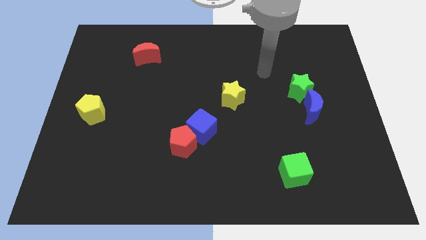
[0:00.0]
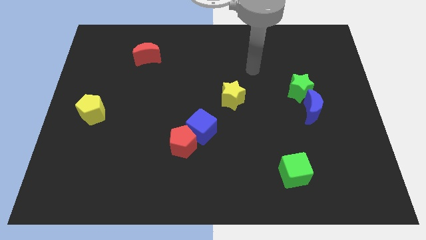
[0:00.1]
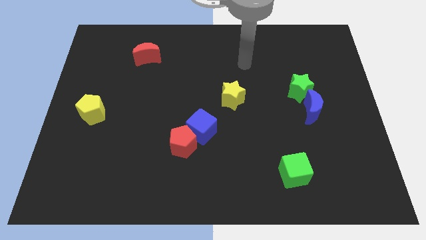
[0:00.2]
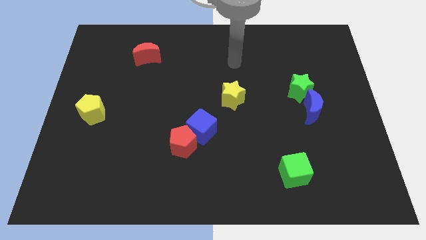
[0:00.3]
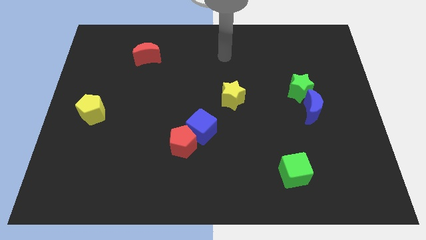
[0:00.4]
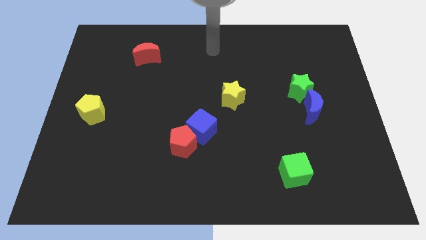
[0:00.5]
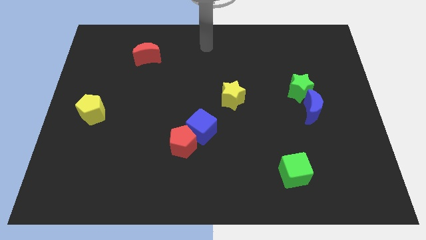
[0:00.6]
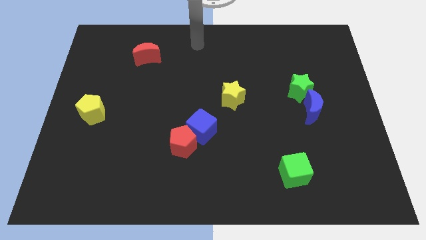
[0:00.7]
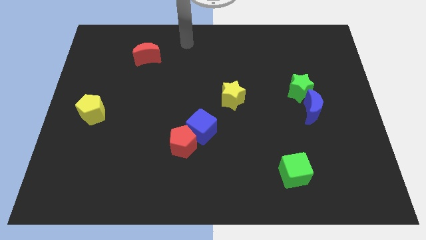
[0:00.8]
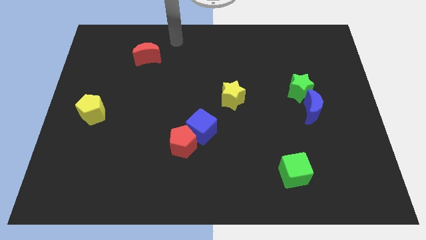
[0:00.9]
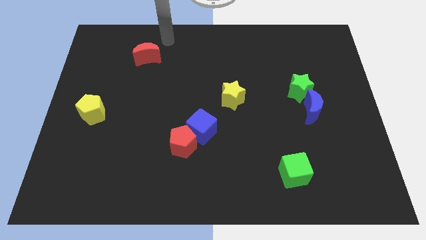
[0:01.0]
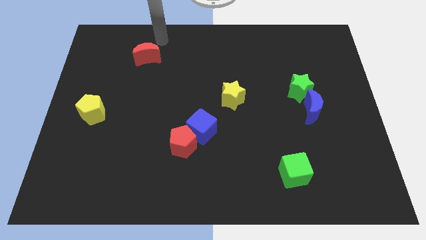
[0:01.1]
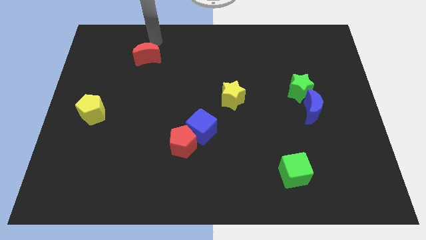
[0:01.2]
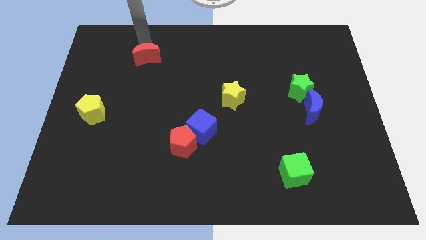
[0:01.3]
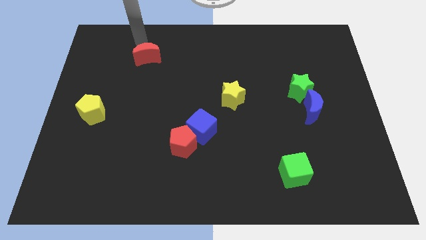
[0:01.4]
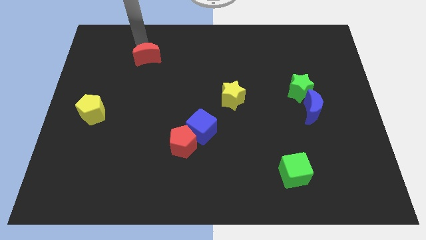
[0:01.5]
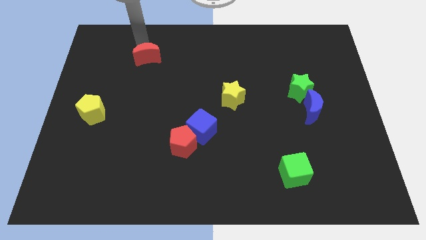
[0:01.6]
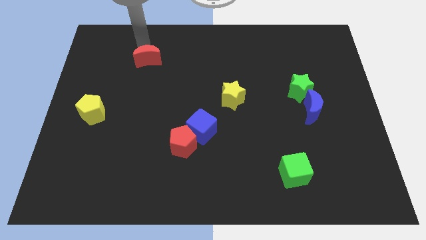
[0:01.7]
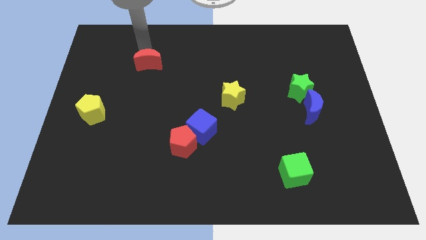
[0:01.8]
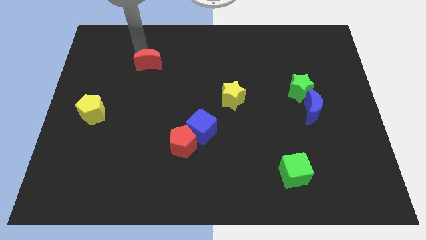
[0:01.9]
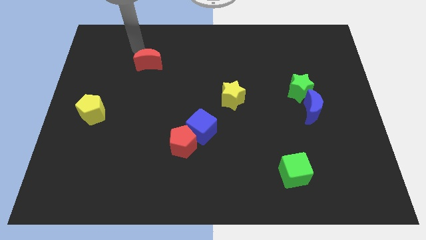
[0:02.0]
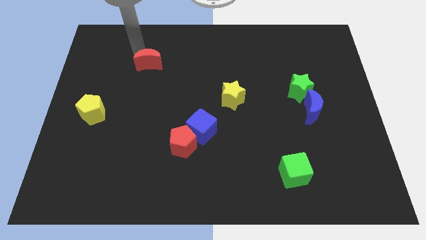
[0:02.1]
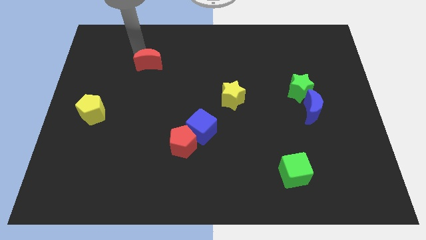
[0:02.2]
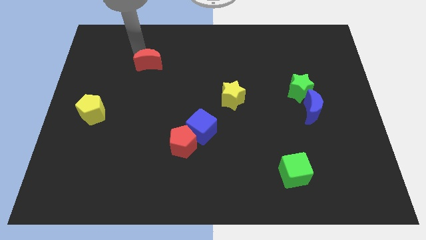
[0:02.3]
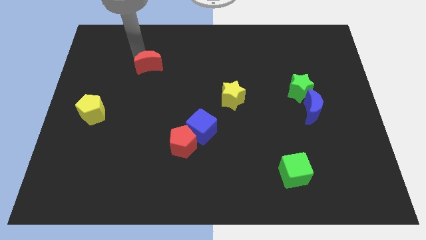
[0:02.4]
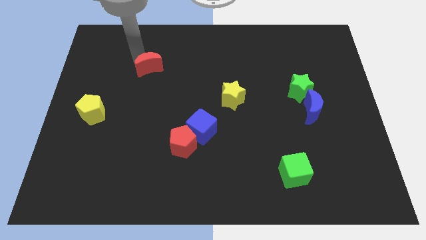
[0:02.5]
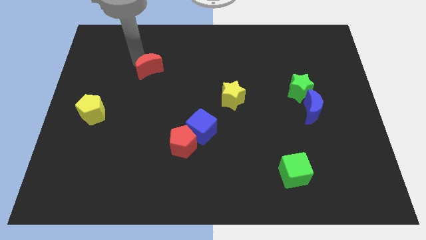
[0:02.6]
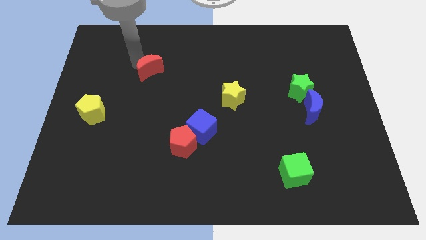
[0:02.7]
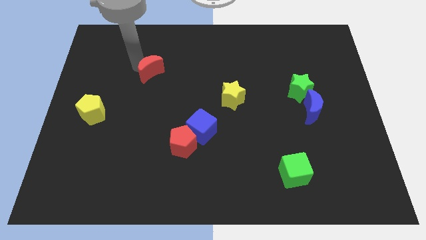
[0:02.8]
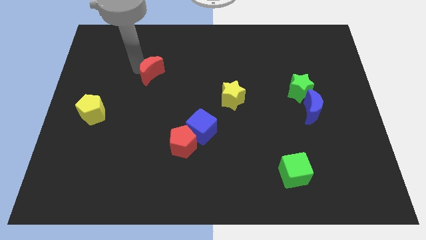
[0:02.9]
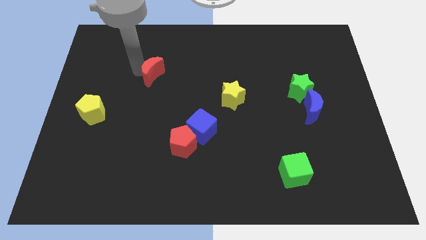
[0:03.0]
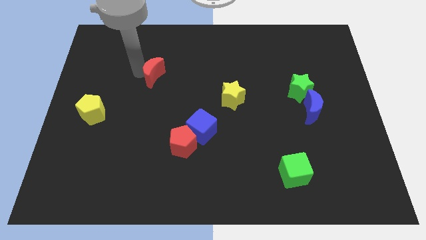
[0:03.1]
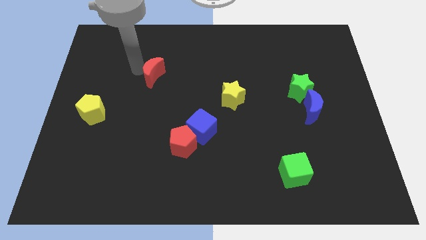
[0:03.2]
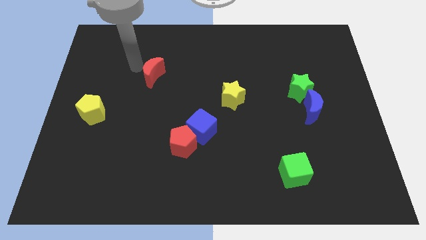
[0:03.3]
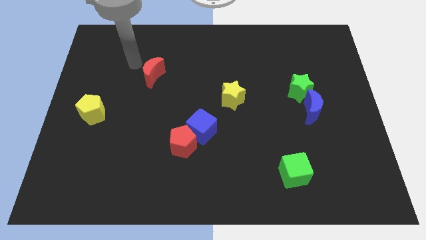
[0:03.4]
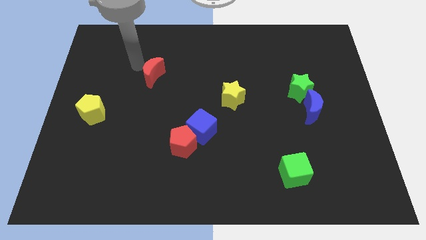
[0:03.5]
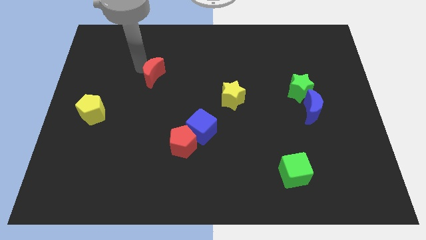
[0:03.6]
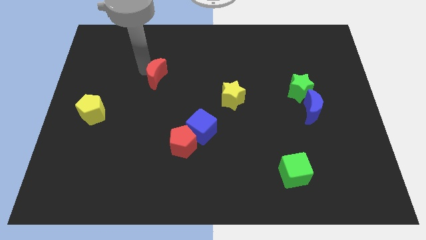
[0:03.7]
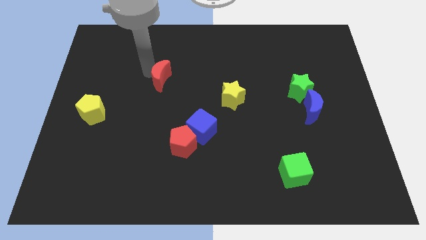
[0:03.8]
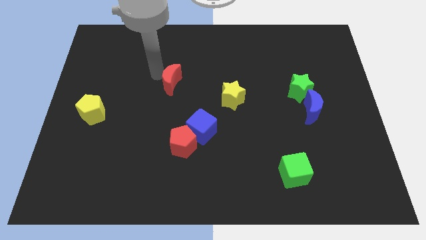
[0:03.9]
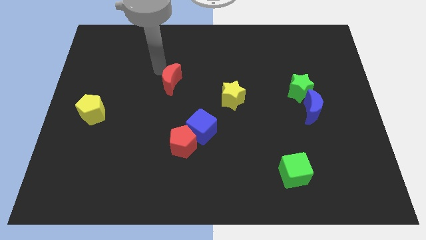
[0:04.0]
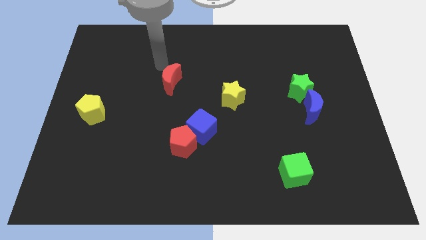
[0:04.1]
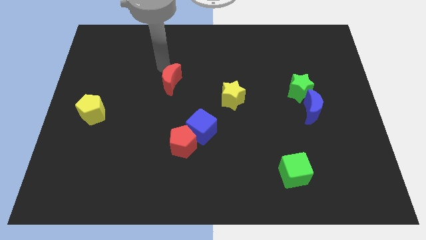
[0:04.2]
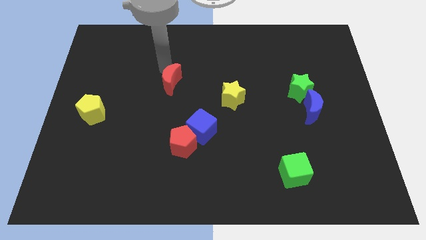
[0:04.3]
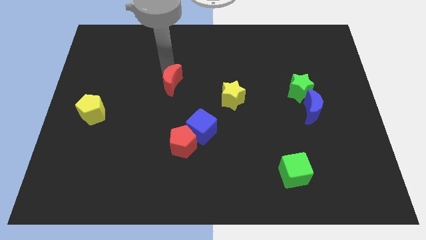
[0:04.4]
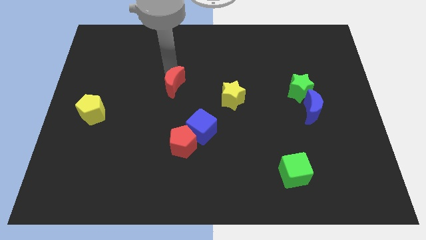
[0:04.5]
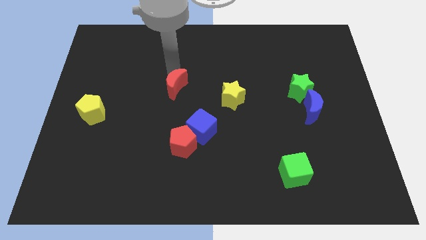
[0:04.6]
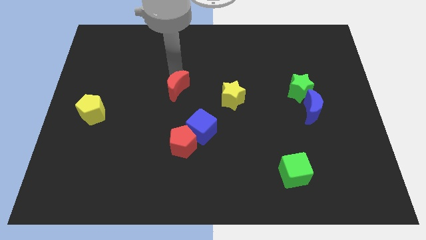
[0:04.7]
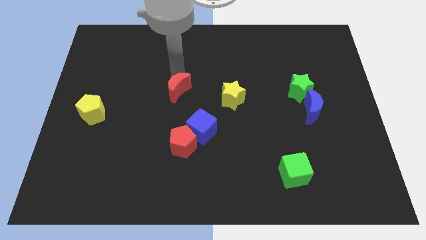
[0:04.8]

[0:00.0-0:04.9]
move the red moon above the red pentagon

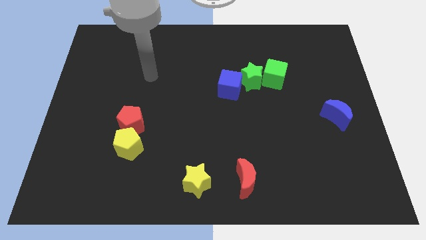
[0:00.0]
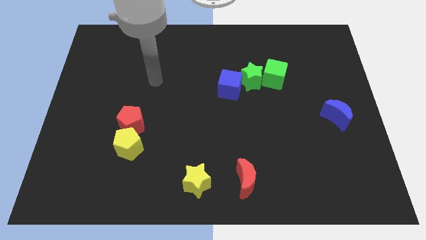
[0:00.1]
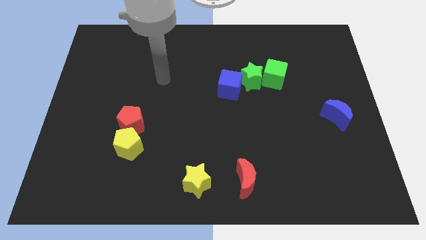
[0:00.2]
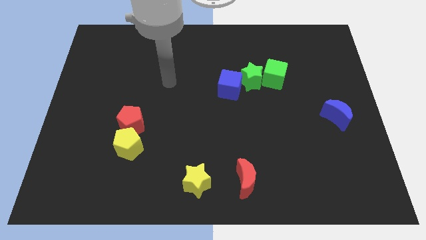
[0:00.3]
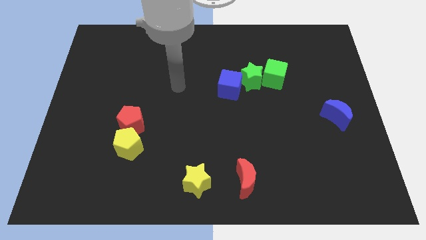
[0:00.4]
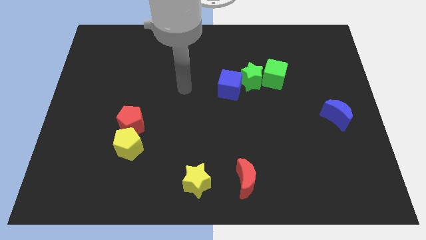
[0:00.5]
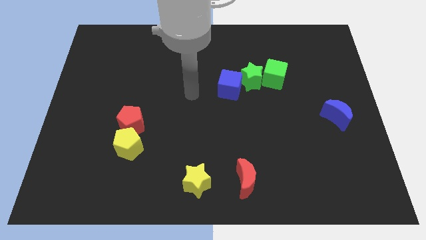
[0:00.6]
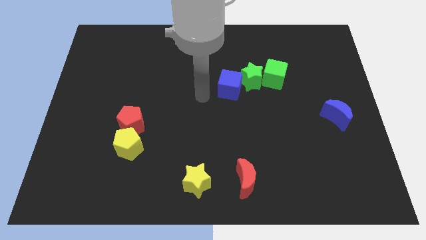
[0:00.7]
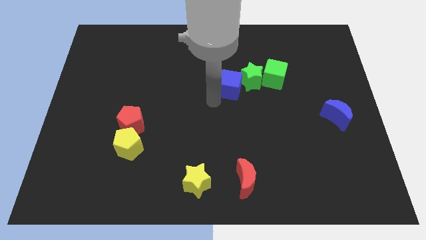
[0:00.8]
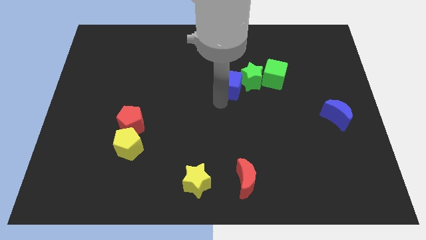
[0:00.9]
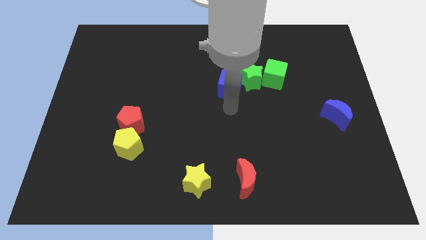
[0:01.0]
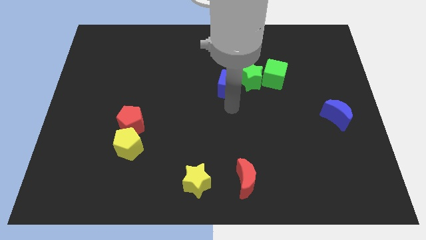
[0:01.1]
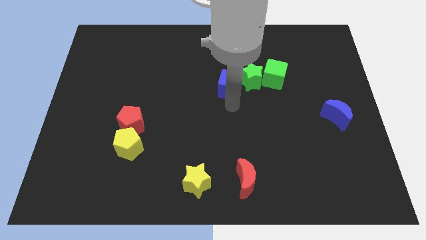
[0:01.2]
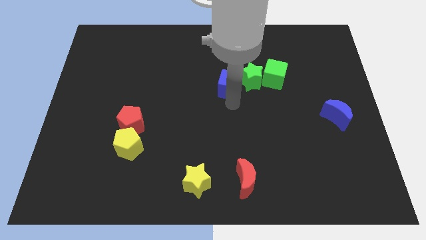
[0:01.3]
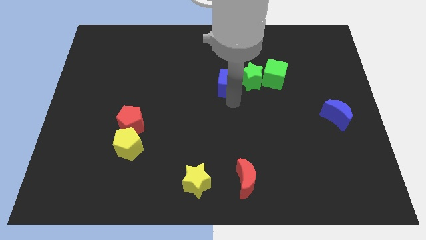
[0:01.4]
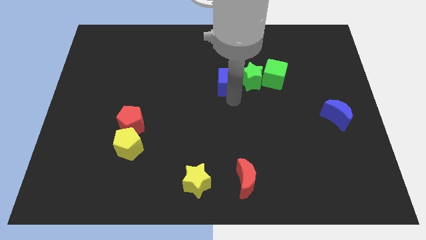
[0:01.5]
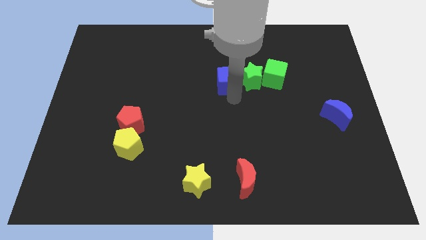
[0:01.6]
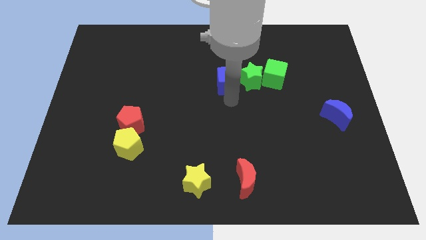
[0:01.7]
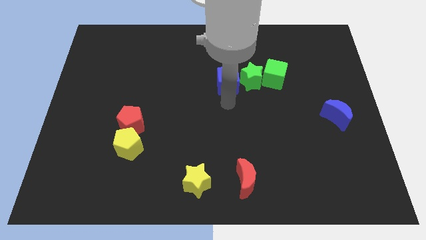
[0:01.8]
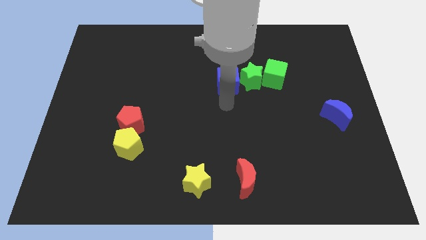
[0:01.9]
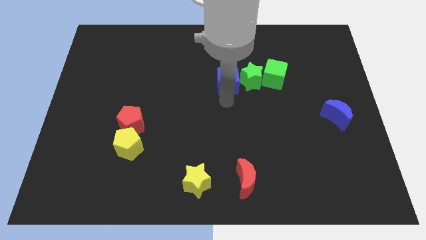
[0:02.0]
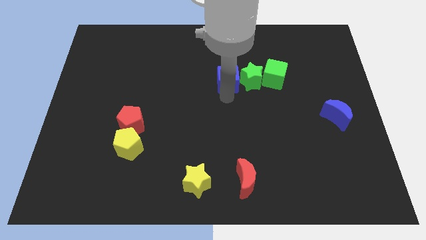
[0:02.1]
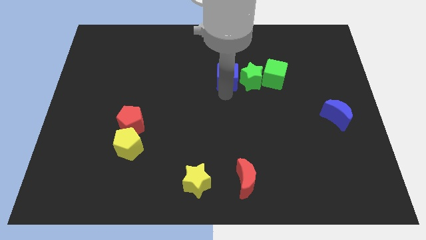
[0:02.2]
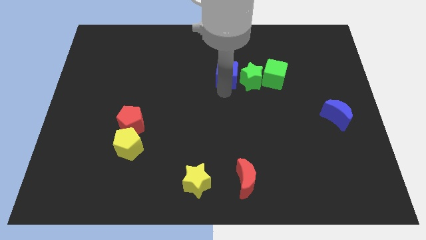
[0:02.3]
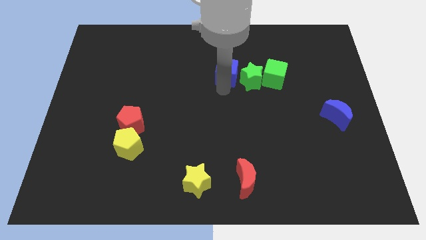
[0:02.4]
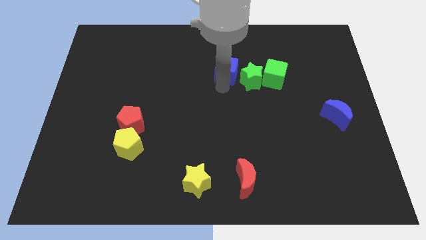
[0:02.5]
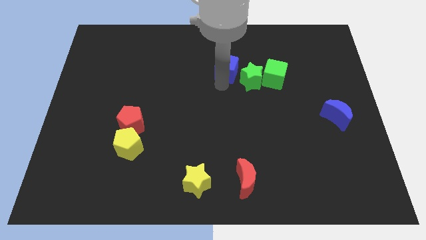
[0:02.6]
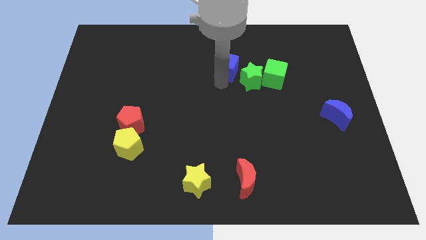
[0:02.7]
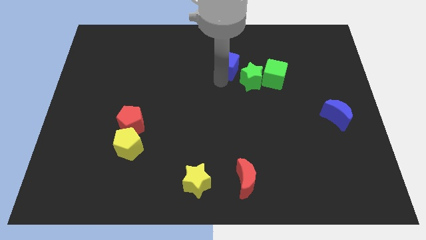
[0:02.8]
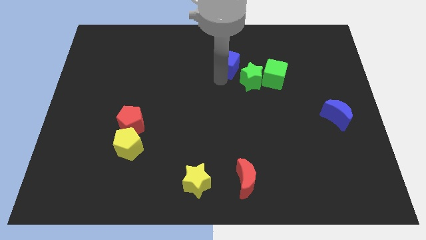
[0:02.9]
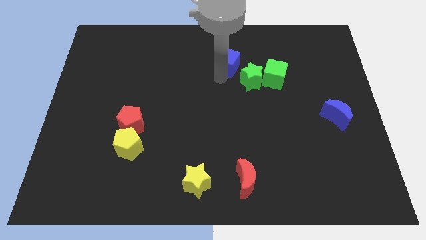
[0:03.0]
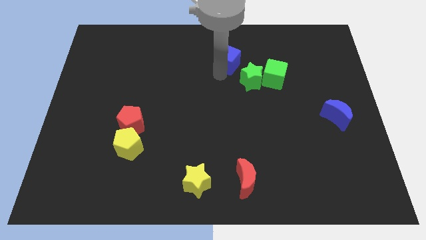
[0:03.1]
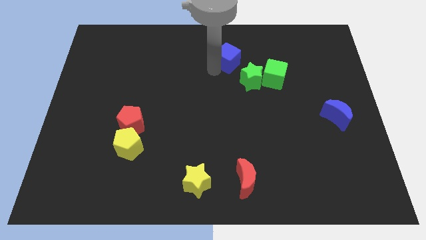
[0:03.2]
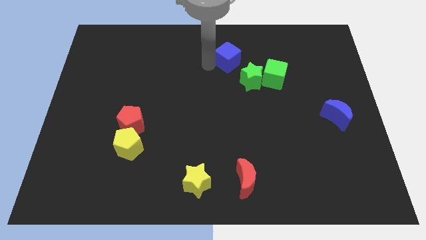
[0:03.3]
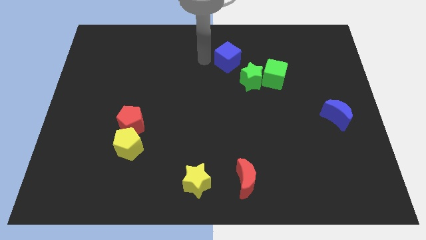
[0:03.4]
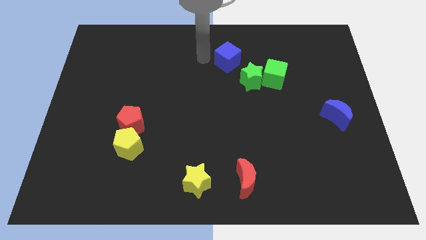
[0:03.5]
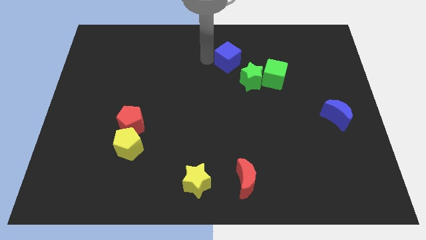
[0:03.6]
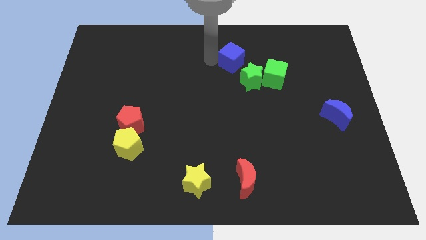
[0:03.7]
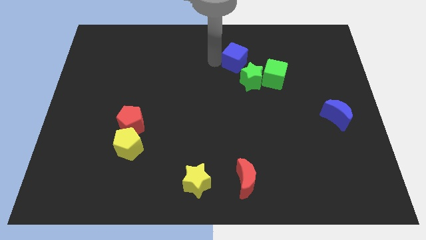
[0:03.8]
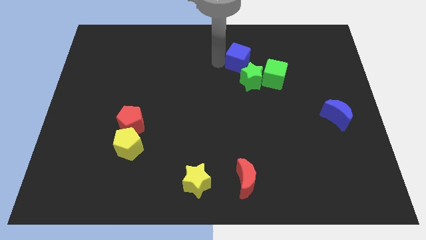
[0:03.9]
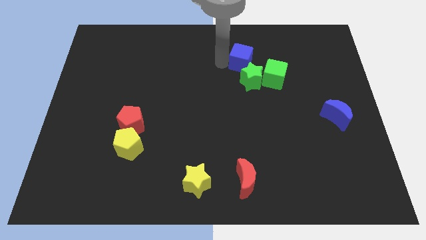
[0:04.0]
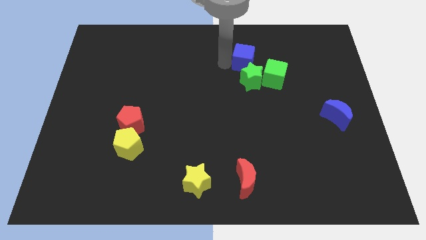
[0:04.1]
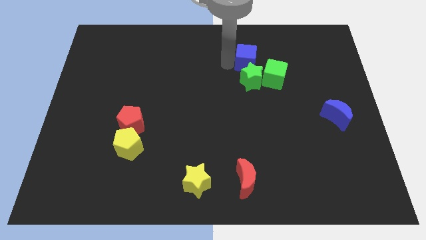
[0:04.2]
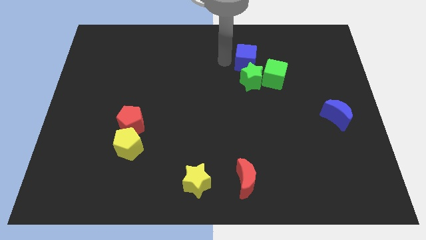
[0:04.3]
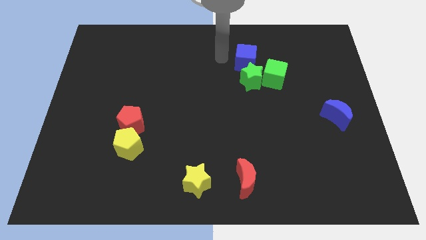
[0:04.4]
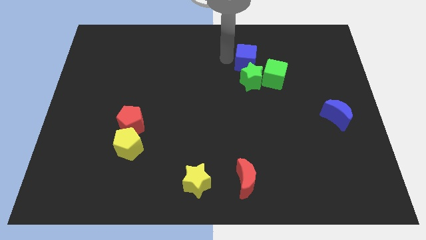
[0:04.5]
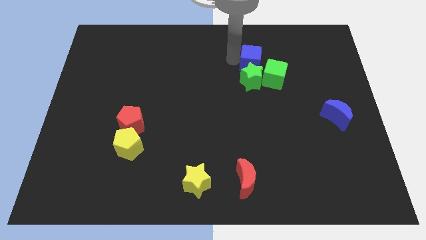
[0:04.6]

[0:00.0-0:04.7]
slide the blue cube to the top right of the green star
